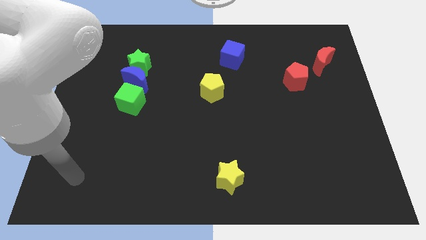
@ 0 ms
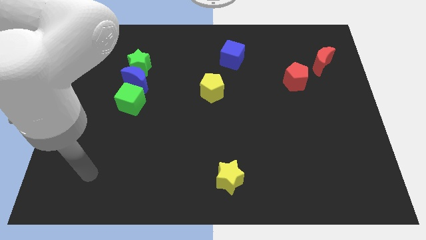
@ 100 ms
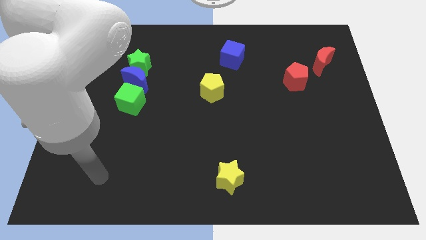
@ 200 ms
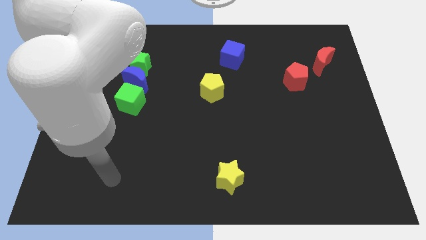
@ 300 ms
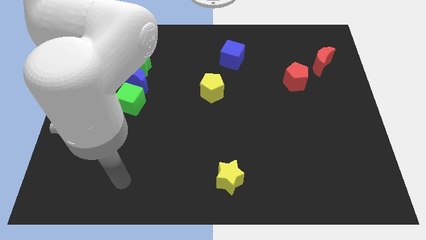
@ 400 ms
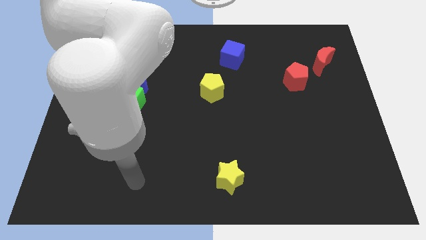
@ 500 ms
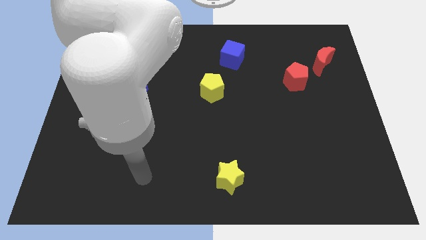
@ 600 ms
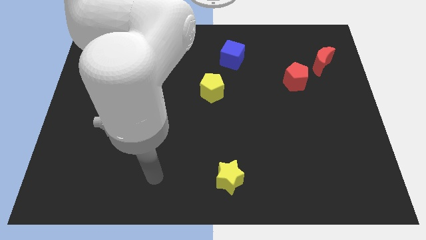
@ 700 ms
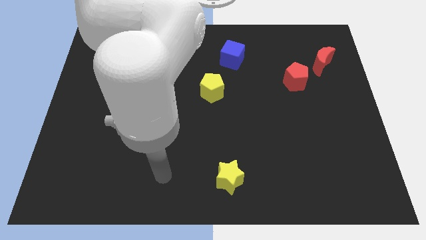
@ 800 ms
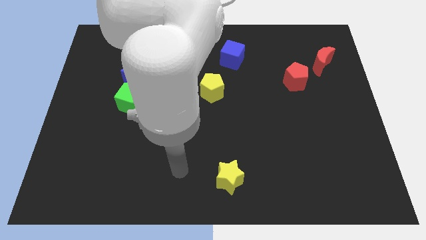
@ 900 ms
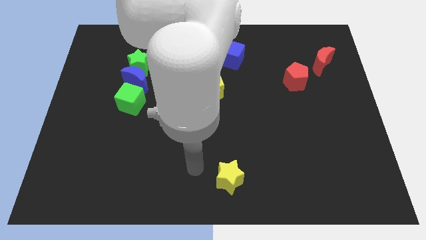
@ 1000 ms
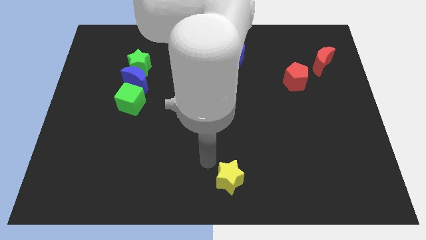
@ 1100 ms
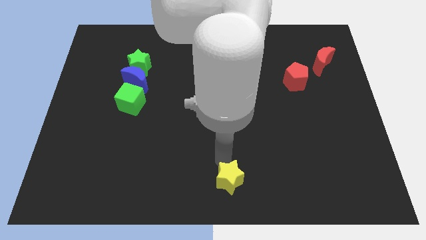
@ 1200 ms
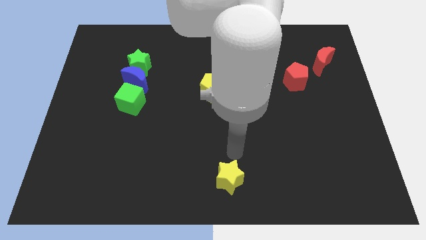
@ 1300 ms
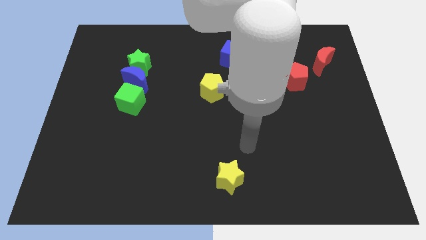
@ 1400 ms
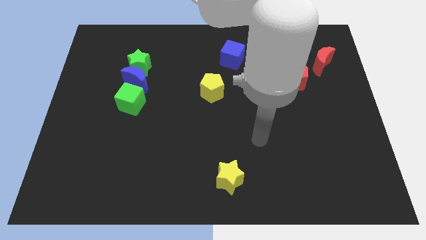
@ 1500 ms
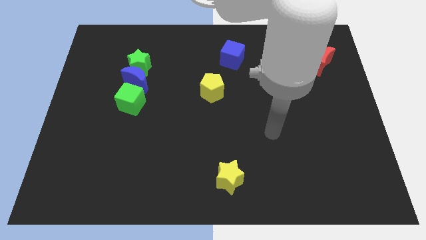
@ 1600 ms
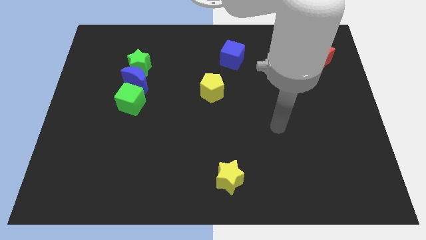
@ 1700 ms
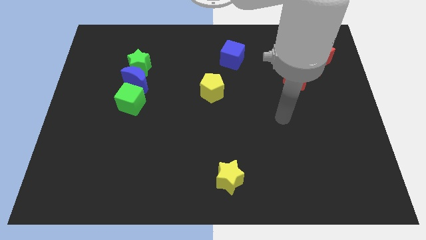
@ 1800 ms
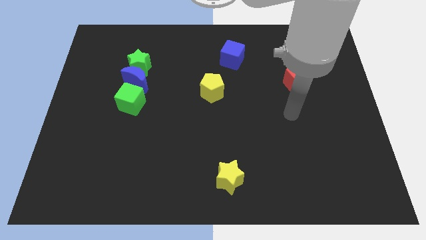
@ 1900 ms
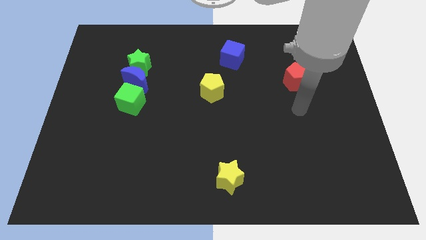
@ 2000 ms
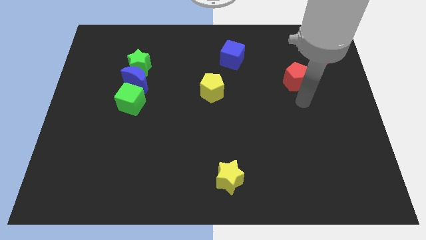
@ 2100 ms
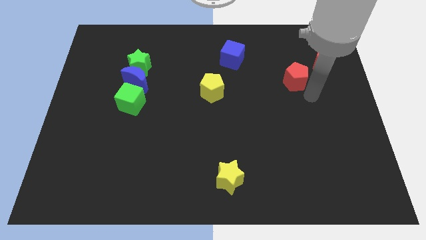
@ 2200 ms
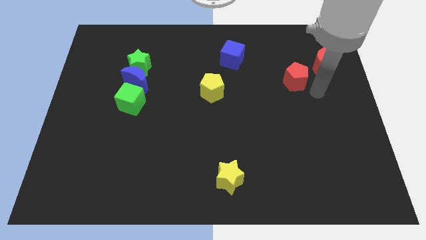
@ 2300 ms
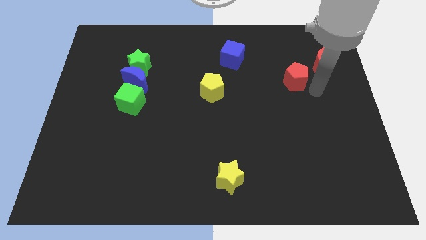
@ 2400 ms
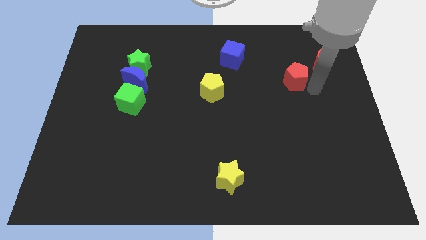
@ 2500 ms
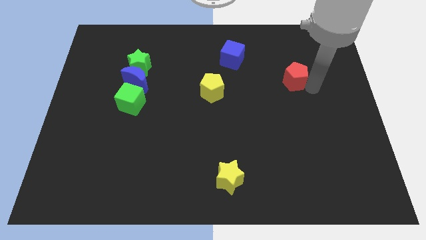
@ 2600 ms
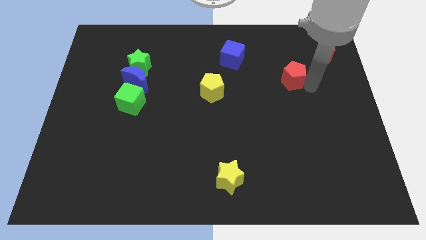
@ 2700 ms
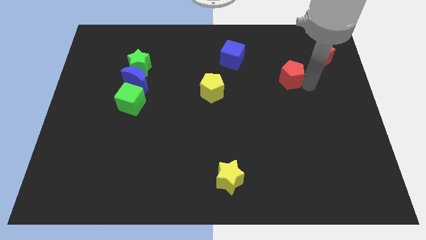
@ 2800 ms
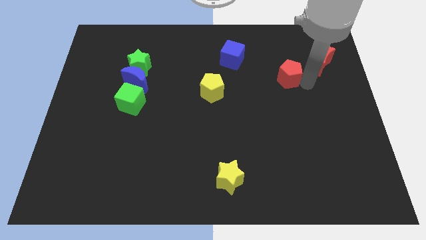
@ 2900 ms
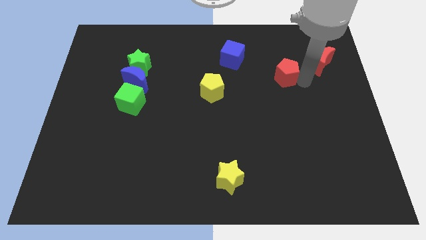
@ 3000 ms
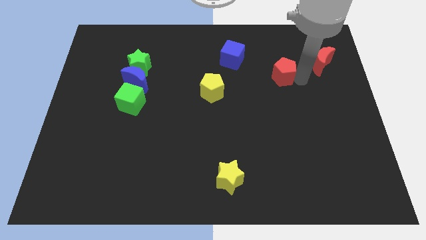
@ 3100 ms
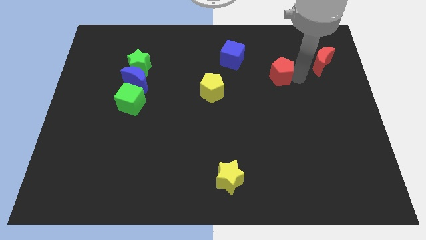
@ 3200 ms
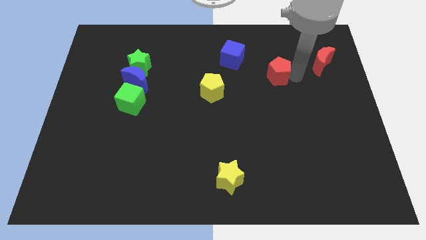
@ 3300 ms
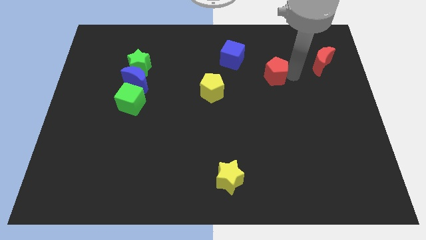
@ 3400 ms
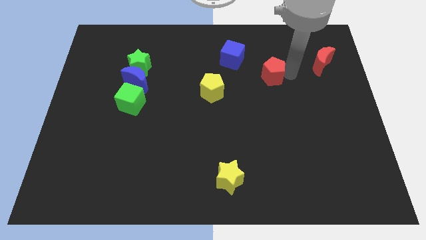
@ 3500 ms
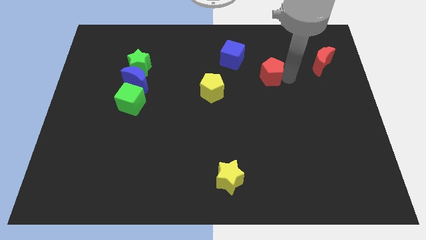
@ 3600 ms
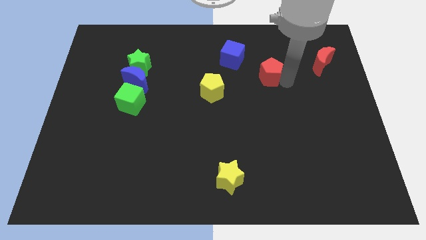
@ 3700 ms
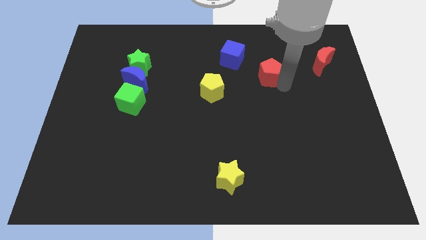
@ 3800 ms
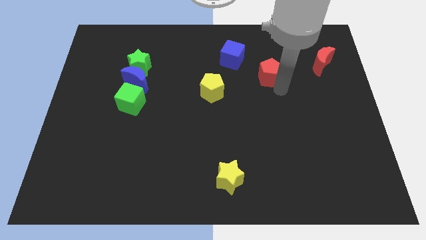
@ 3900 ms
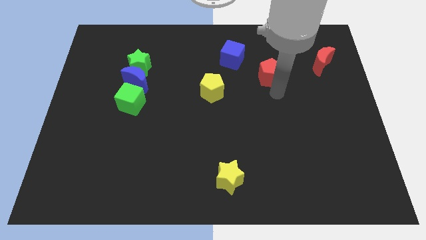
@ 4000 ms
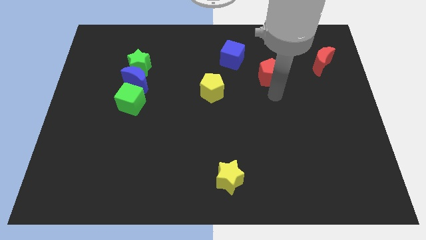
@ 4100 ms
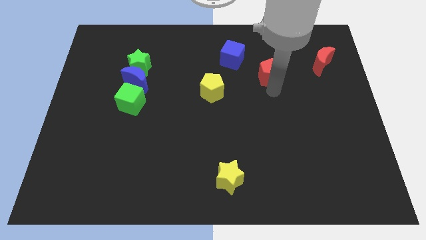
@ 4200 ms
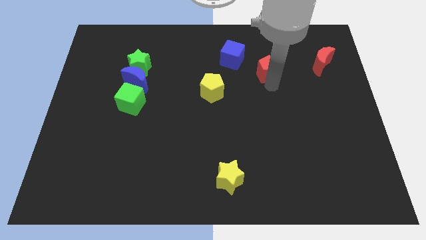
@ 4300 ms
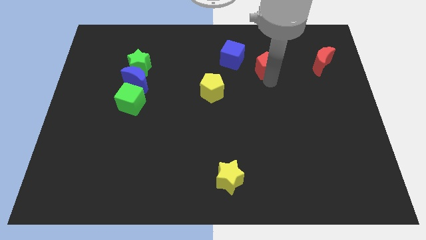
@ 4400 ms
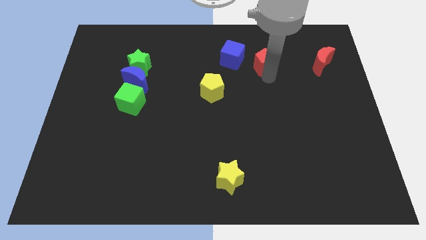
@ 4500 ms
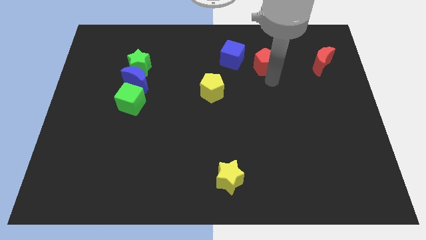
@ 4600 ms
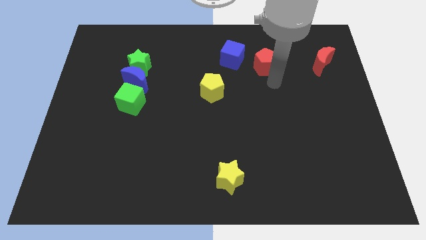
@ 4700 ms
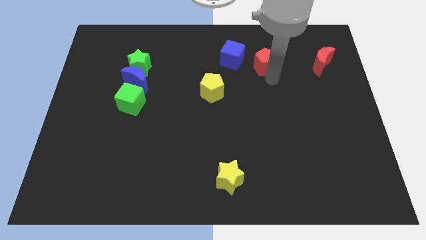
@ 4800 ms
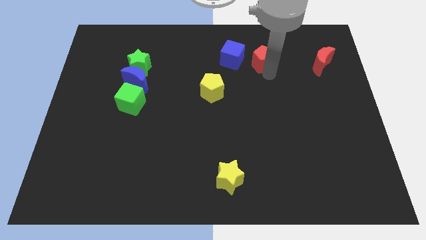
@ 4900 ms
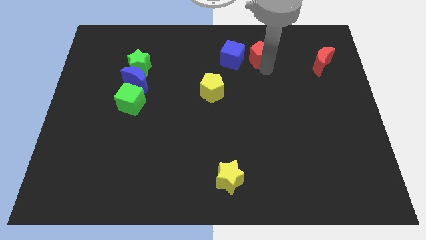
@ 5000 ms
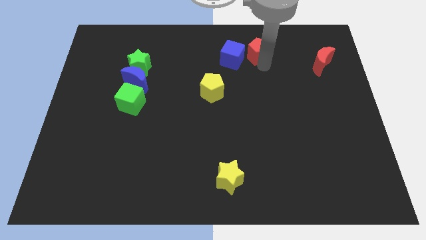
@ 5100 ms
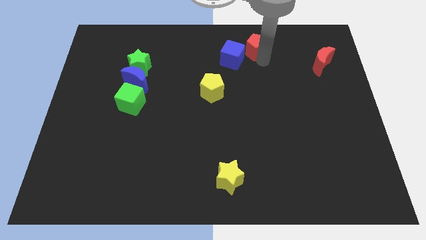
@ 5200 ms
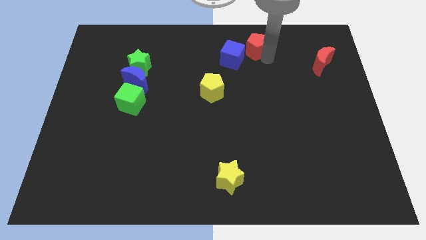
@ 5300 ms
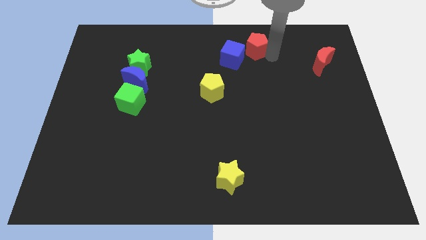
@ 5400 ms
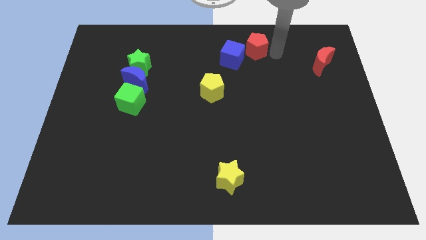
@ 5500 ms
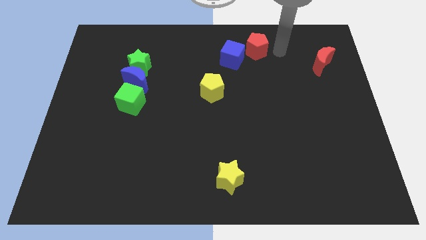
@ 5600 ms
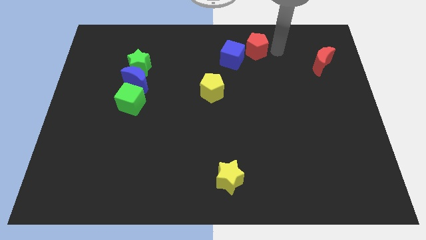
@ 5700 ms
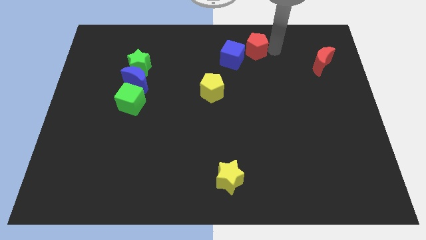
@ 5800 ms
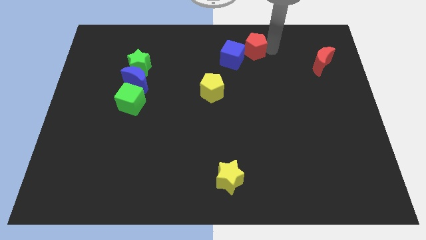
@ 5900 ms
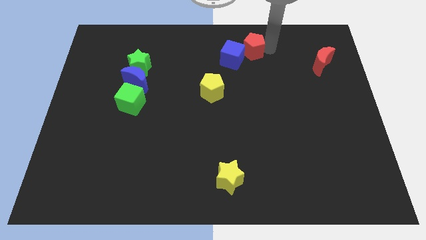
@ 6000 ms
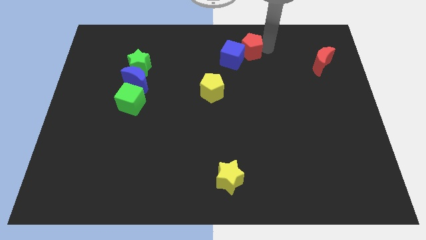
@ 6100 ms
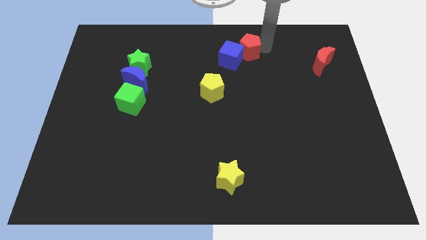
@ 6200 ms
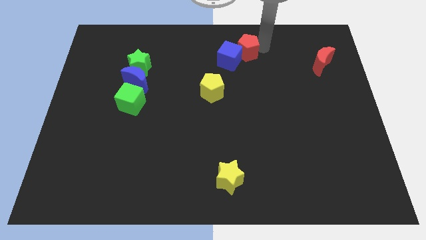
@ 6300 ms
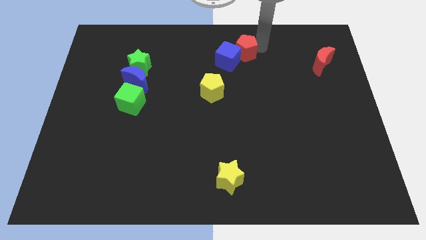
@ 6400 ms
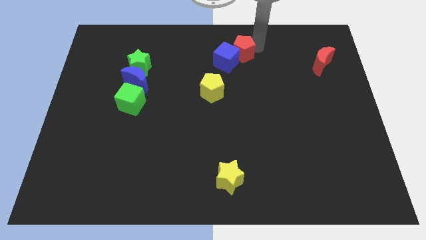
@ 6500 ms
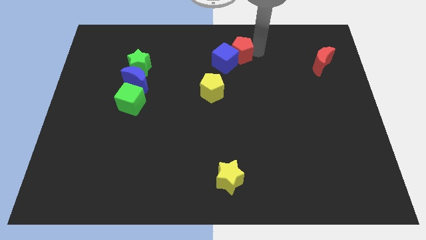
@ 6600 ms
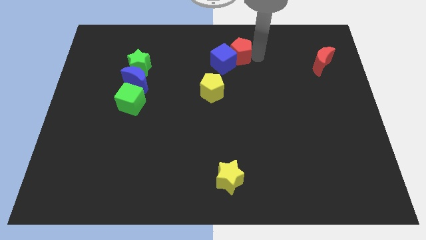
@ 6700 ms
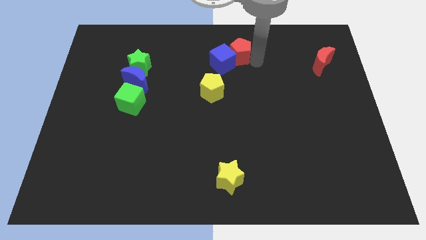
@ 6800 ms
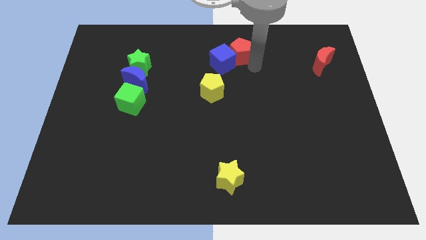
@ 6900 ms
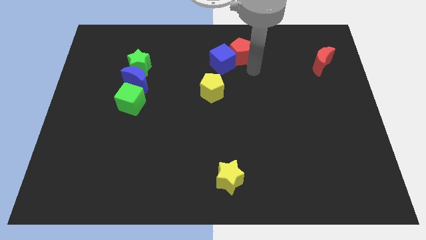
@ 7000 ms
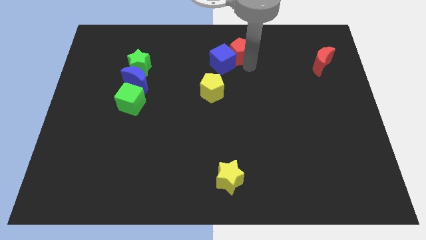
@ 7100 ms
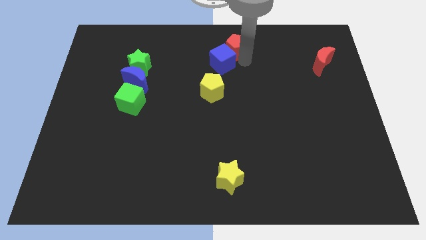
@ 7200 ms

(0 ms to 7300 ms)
put the red pentagon to the top side
